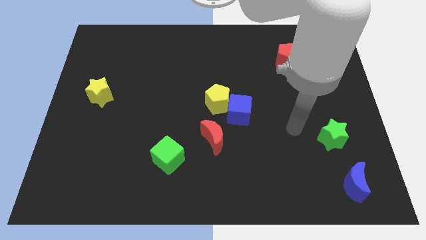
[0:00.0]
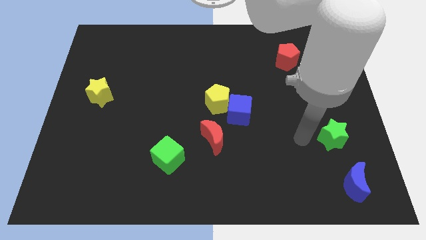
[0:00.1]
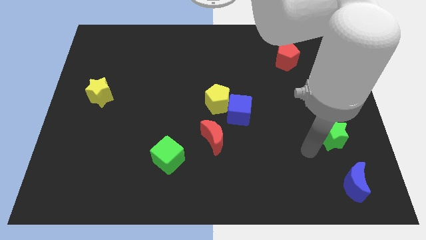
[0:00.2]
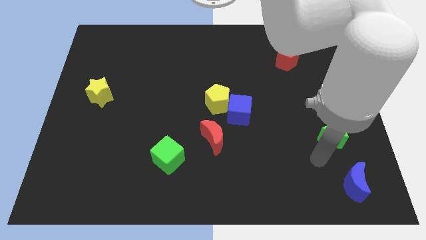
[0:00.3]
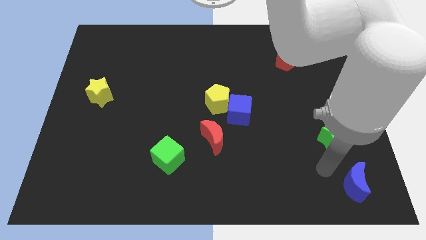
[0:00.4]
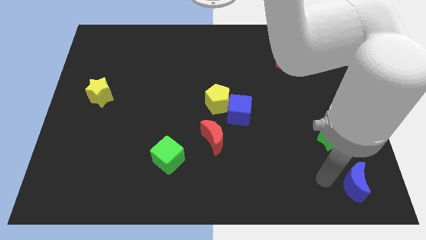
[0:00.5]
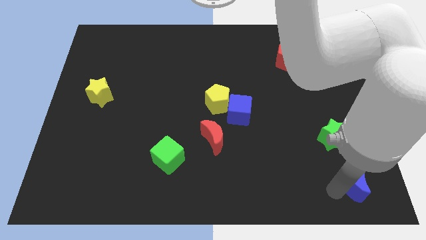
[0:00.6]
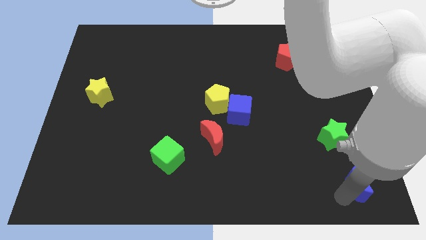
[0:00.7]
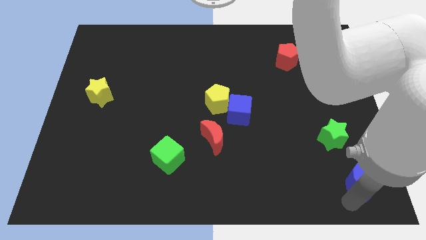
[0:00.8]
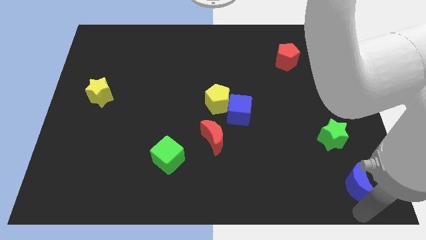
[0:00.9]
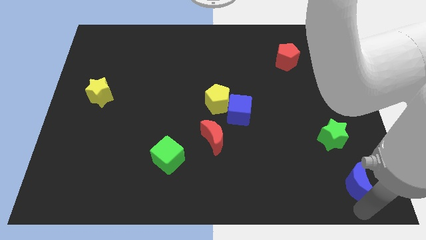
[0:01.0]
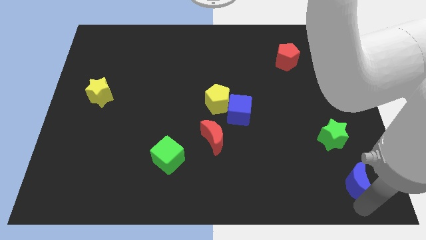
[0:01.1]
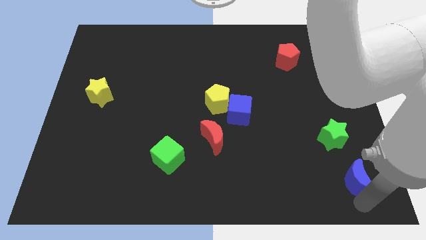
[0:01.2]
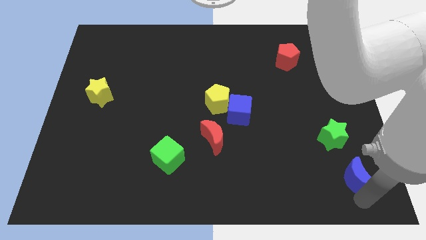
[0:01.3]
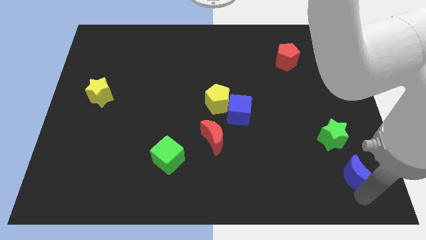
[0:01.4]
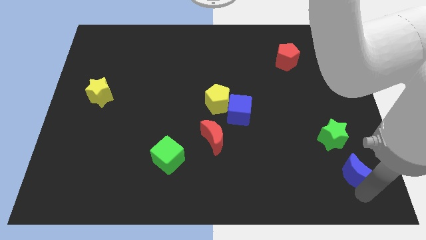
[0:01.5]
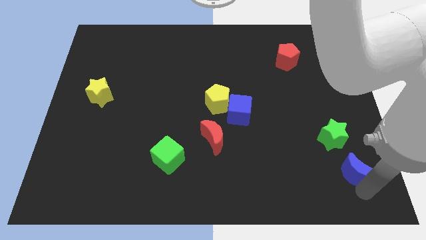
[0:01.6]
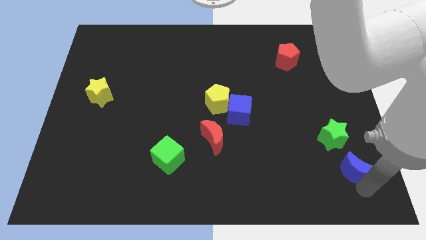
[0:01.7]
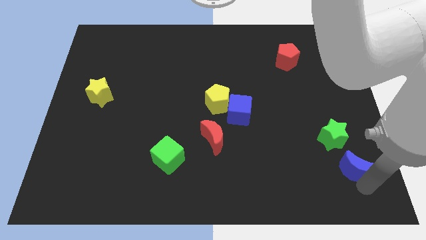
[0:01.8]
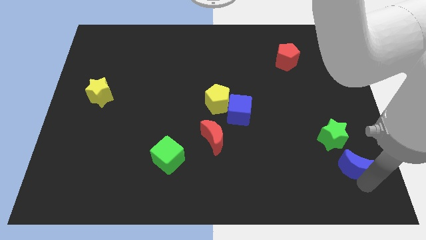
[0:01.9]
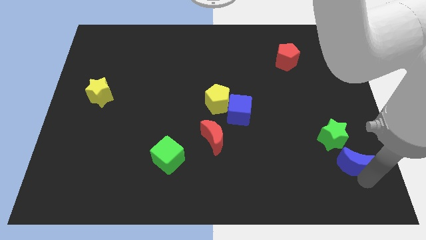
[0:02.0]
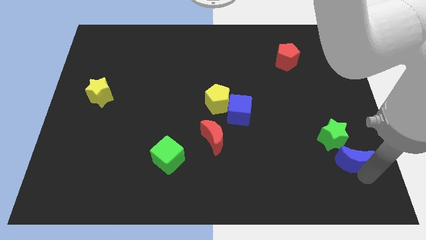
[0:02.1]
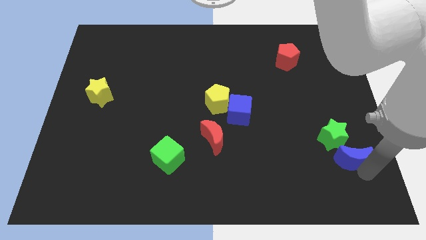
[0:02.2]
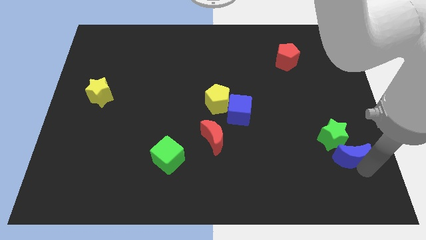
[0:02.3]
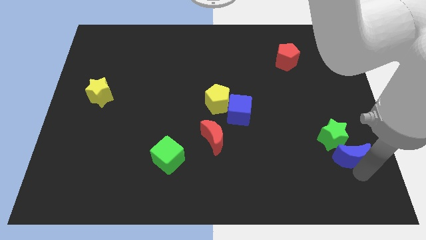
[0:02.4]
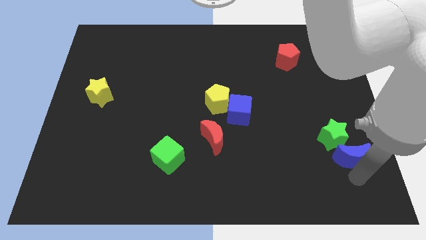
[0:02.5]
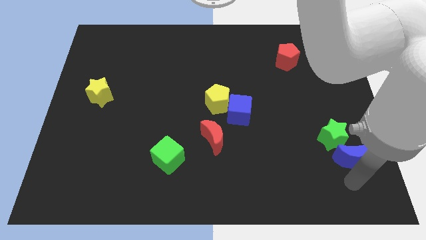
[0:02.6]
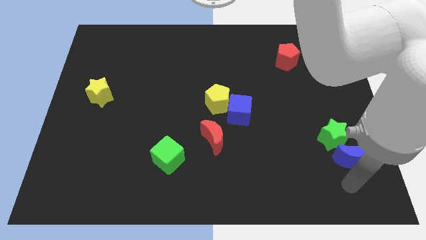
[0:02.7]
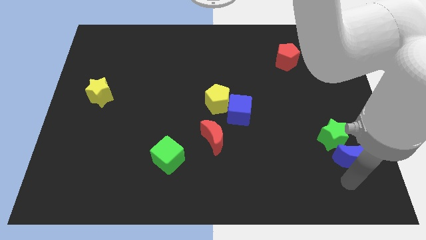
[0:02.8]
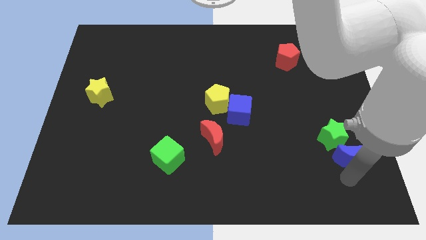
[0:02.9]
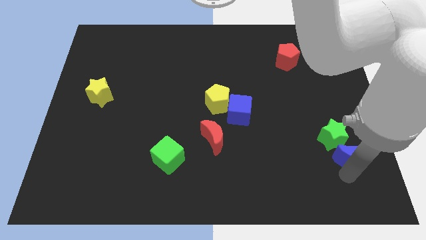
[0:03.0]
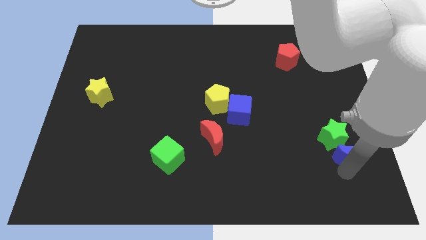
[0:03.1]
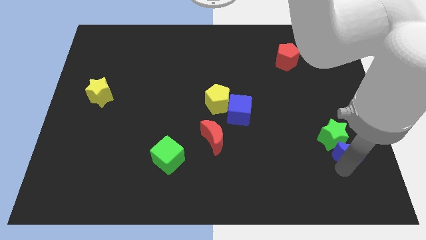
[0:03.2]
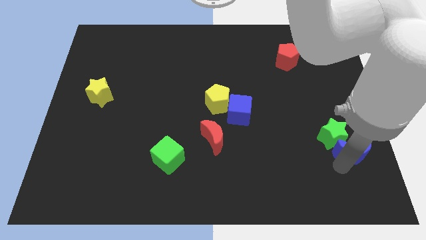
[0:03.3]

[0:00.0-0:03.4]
slightly push the blue moon upwards

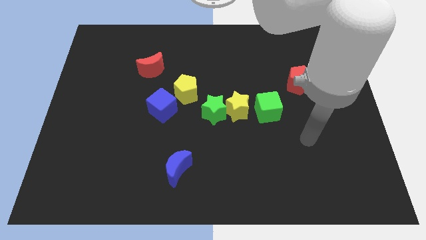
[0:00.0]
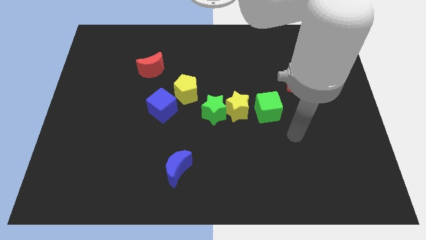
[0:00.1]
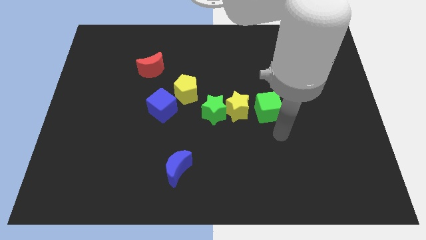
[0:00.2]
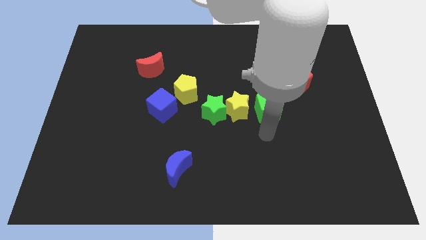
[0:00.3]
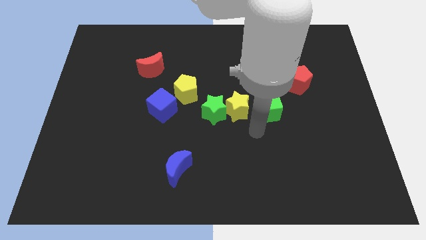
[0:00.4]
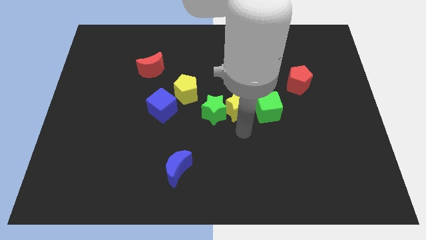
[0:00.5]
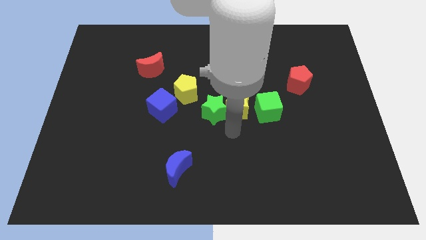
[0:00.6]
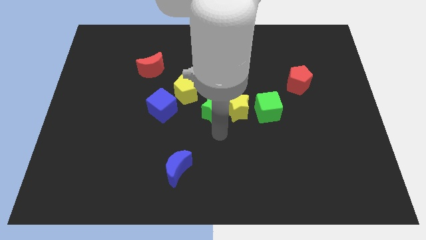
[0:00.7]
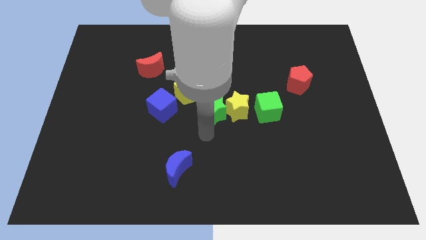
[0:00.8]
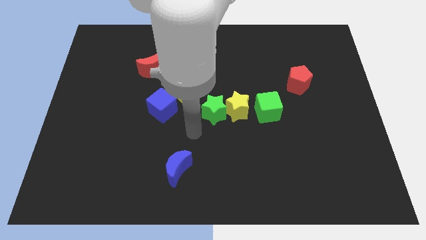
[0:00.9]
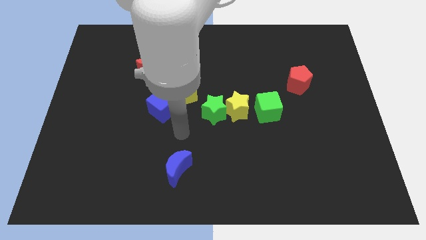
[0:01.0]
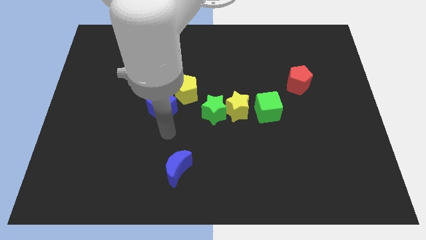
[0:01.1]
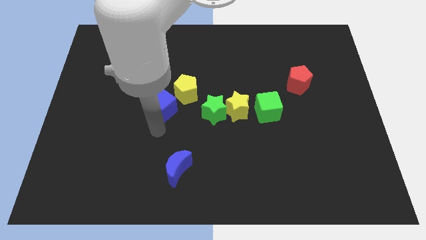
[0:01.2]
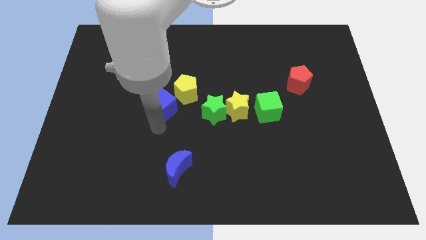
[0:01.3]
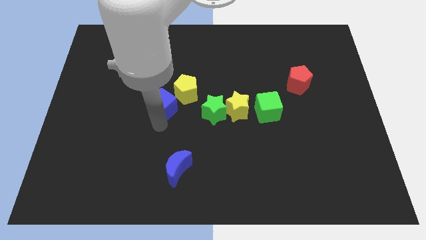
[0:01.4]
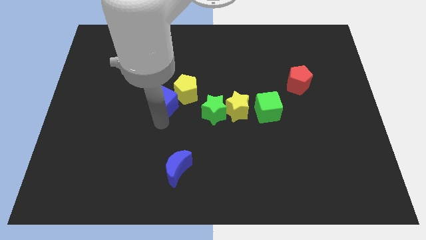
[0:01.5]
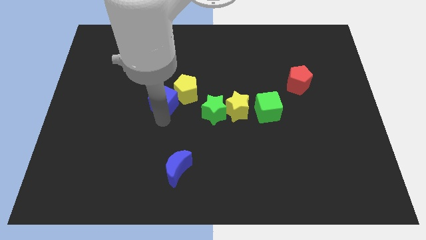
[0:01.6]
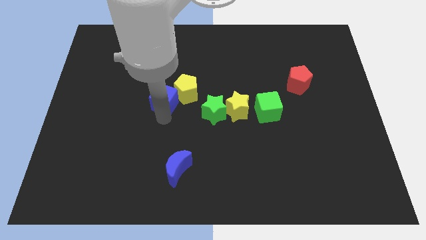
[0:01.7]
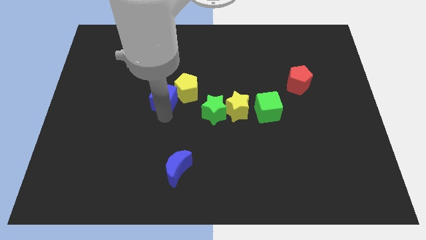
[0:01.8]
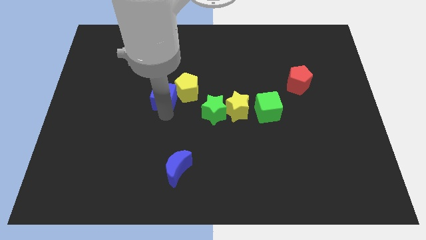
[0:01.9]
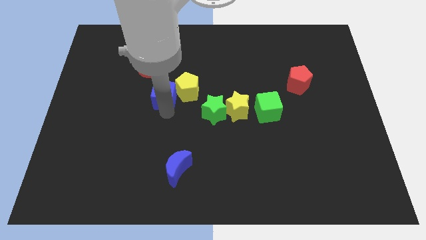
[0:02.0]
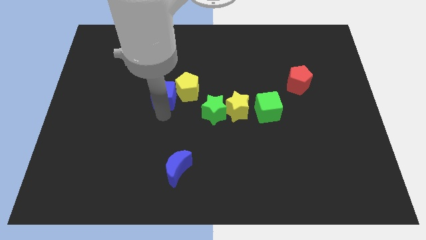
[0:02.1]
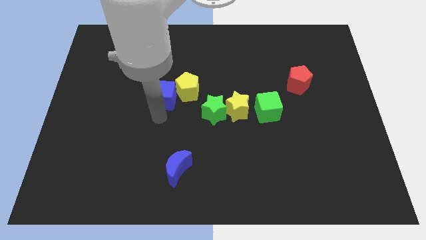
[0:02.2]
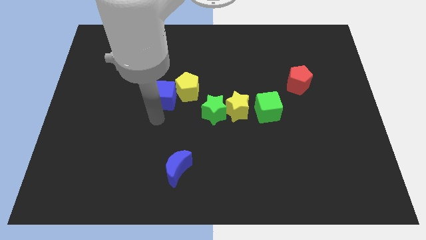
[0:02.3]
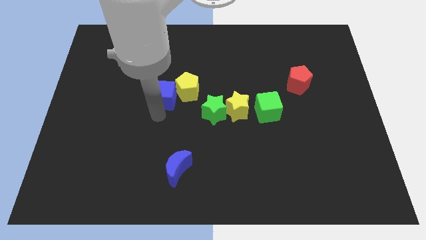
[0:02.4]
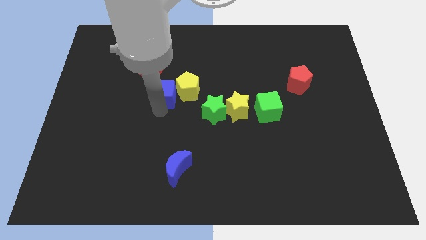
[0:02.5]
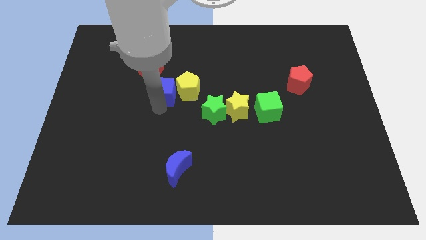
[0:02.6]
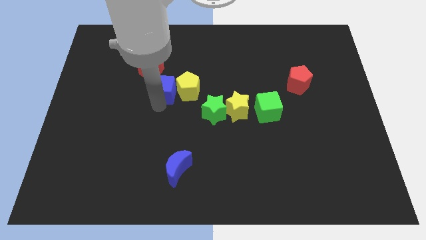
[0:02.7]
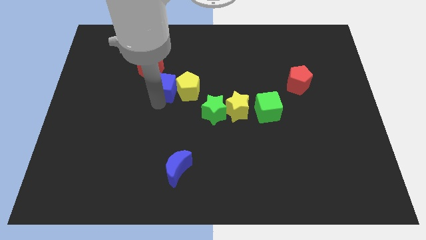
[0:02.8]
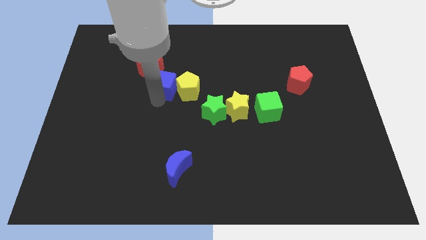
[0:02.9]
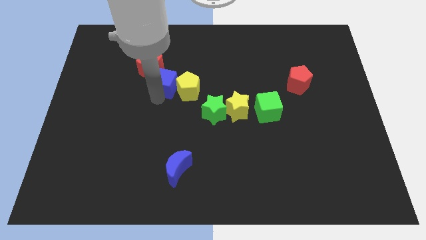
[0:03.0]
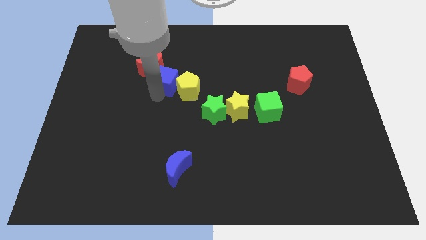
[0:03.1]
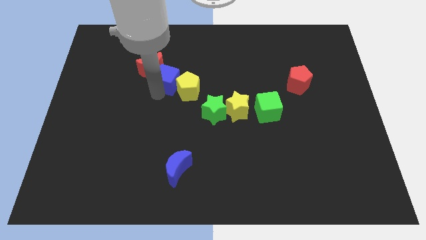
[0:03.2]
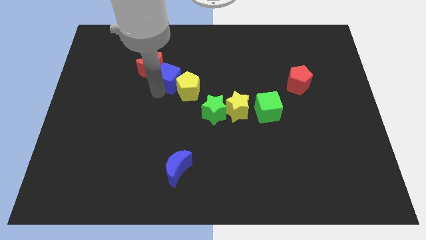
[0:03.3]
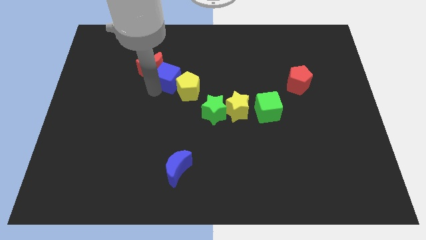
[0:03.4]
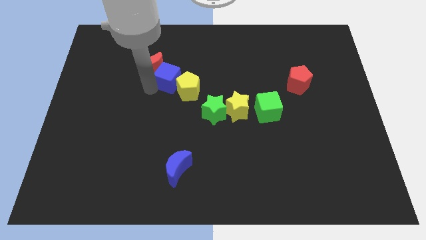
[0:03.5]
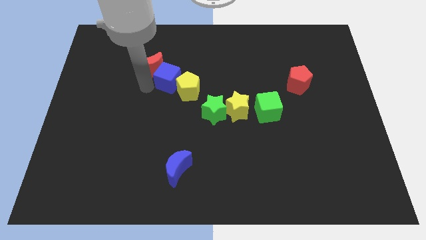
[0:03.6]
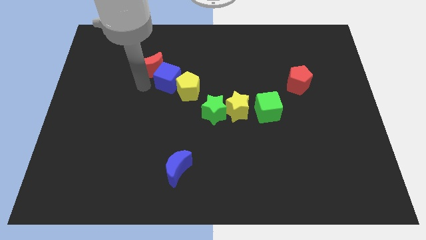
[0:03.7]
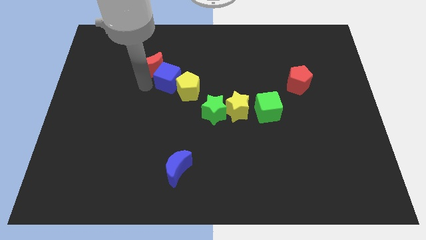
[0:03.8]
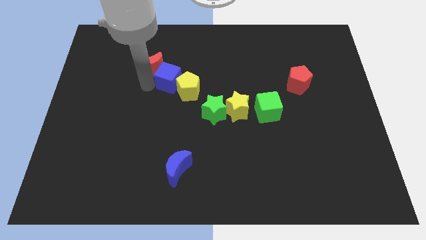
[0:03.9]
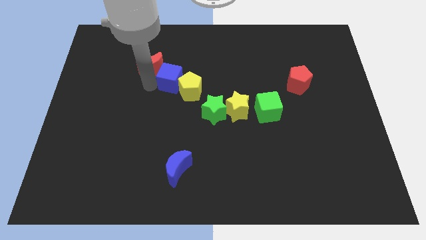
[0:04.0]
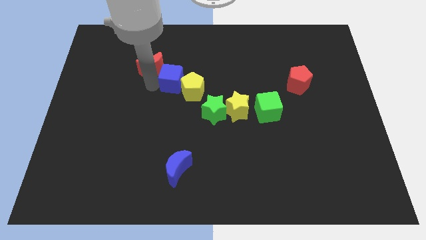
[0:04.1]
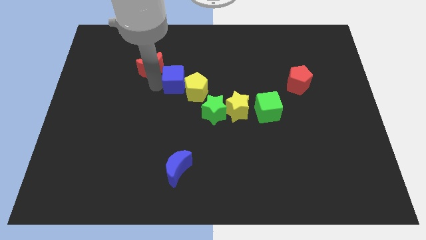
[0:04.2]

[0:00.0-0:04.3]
push the blue cube diagonally up and to the right a bit

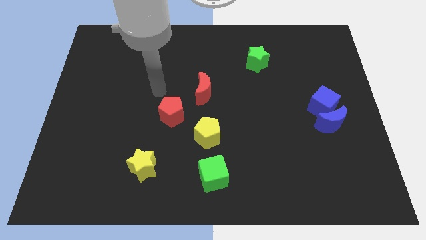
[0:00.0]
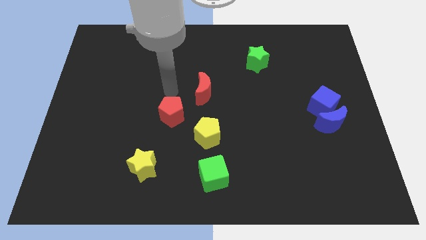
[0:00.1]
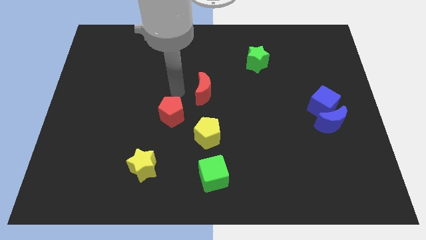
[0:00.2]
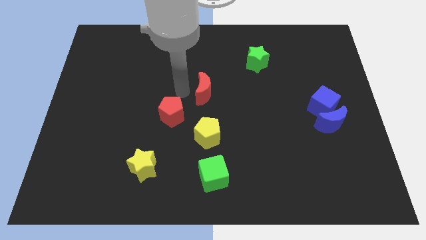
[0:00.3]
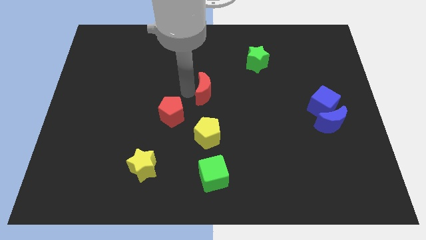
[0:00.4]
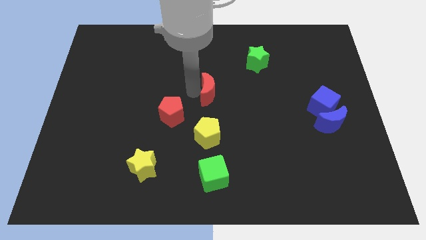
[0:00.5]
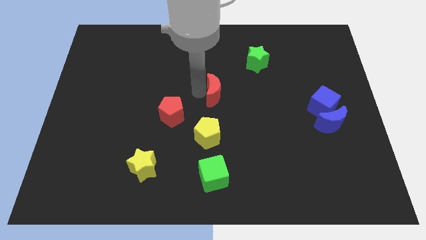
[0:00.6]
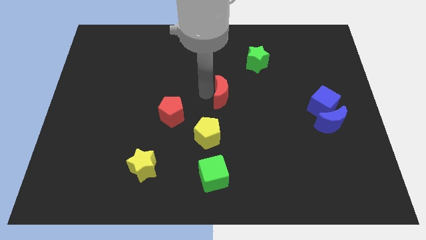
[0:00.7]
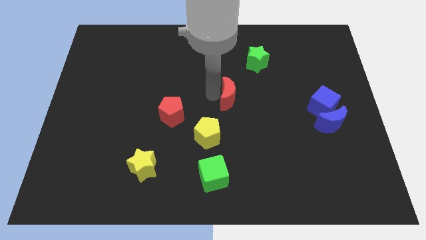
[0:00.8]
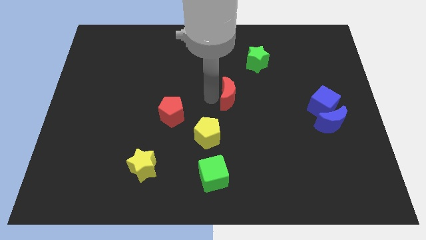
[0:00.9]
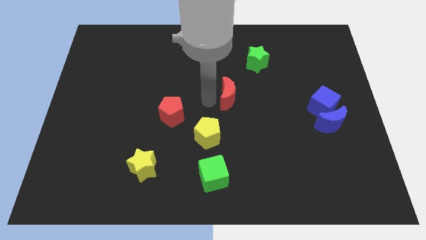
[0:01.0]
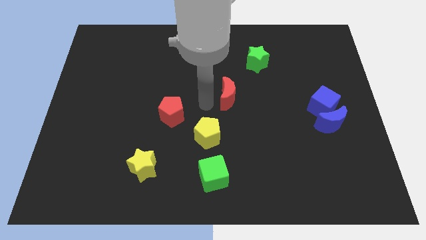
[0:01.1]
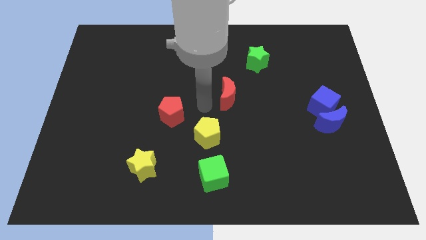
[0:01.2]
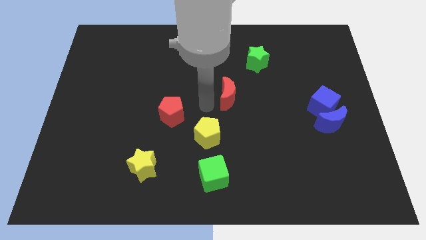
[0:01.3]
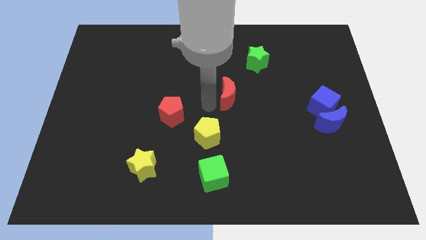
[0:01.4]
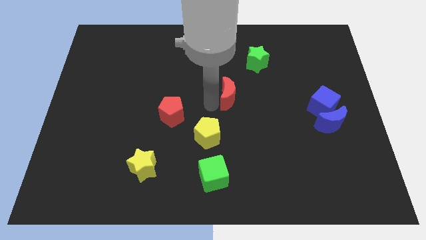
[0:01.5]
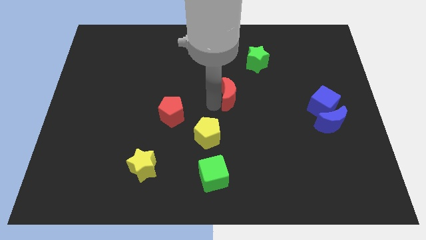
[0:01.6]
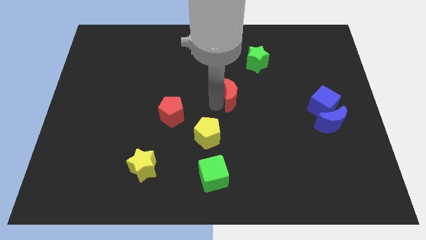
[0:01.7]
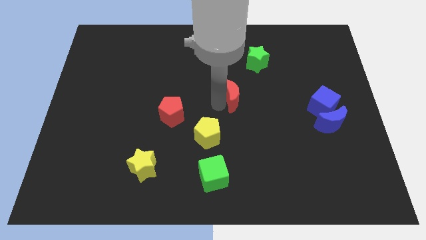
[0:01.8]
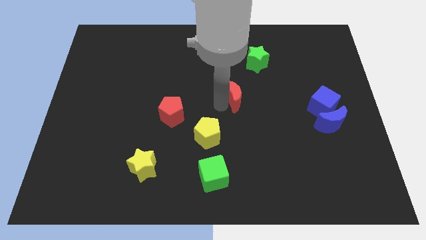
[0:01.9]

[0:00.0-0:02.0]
slide the red moon to the right somewhat
